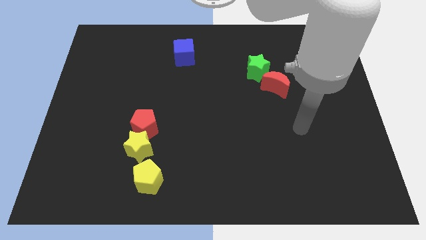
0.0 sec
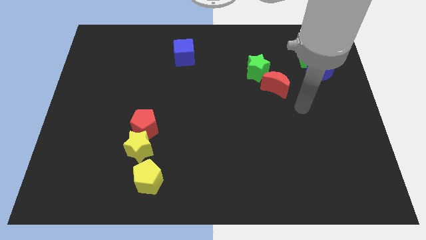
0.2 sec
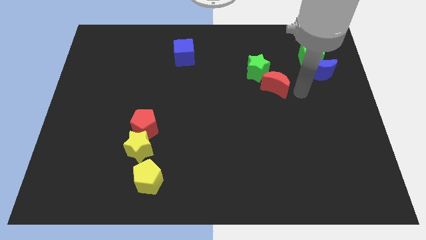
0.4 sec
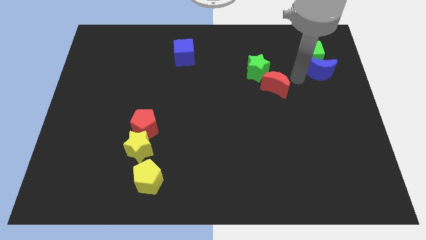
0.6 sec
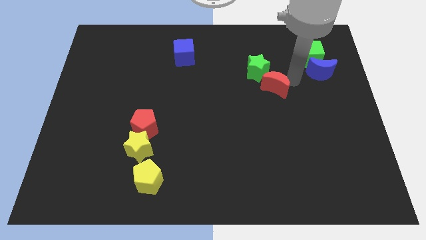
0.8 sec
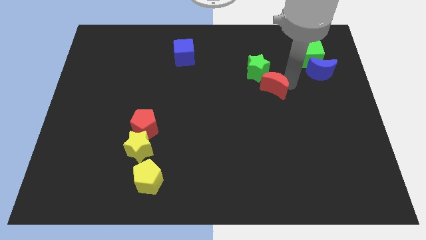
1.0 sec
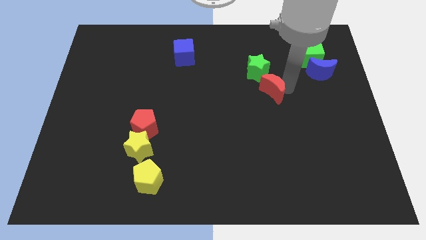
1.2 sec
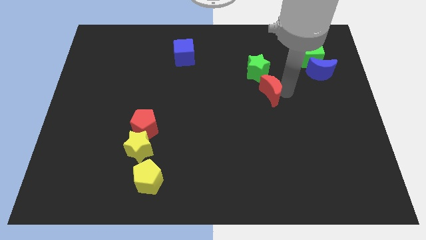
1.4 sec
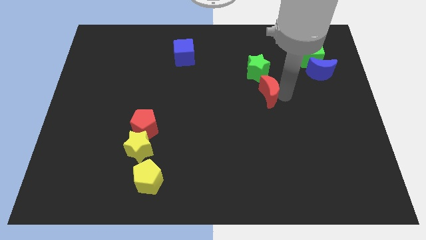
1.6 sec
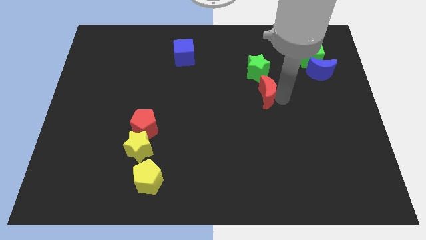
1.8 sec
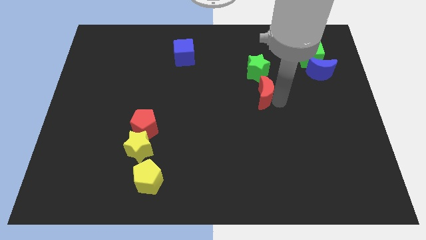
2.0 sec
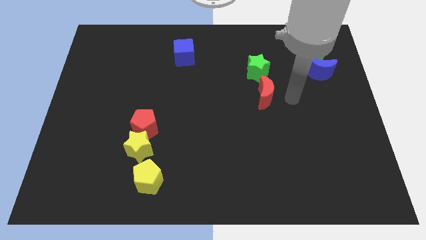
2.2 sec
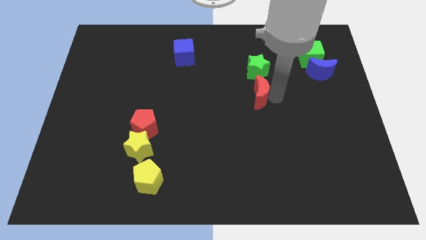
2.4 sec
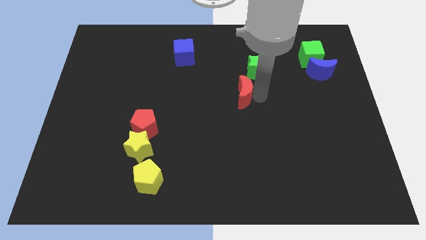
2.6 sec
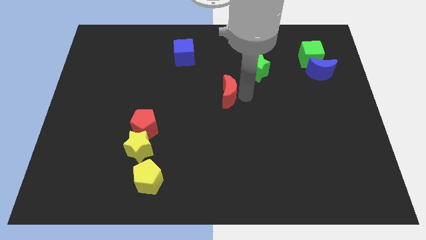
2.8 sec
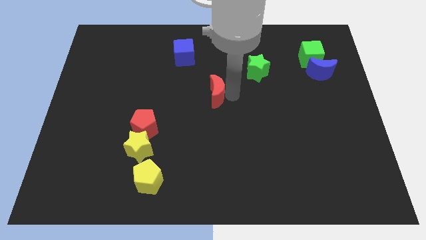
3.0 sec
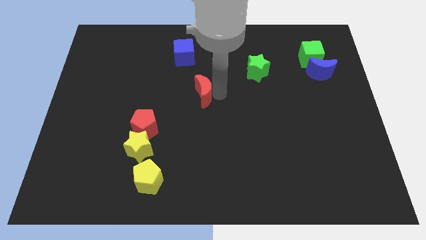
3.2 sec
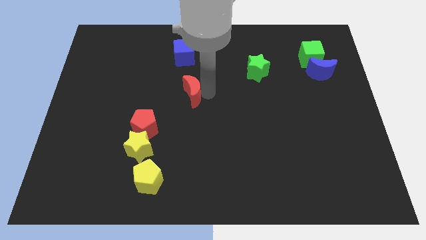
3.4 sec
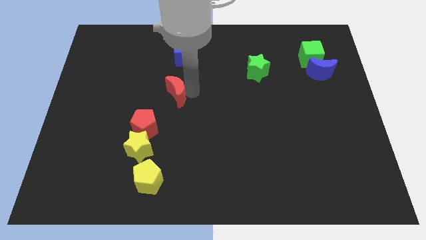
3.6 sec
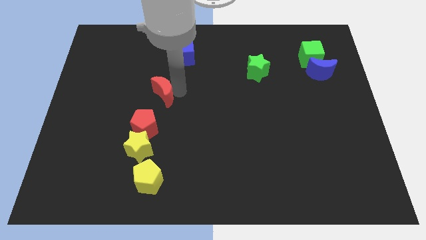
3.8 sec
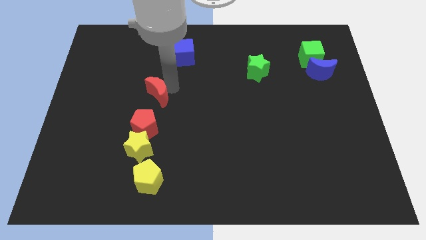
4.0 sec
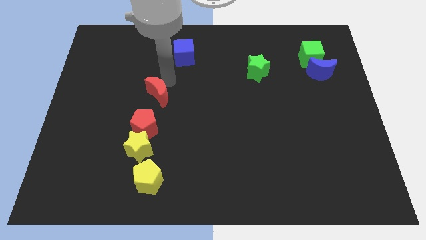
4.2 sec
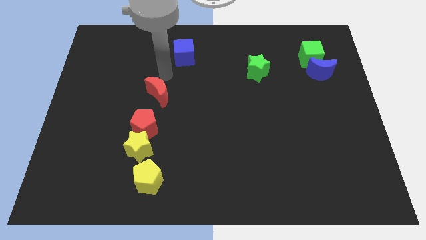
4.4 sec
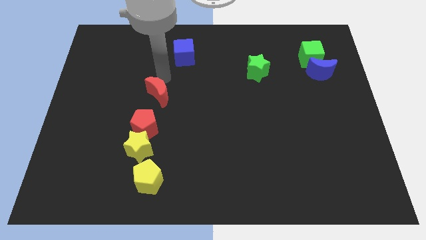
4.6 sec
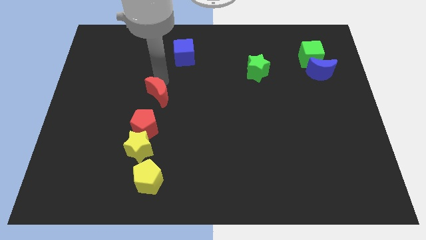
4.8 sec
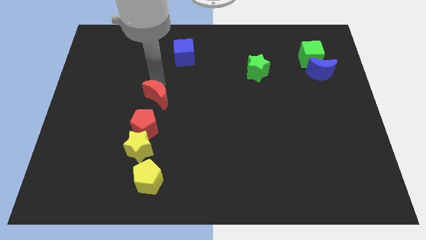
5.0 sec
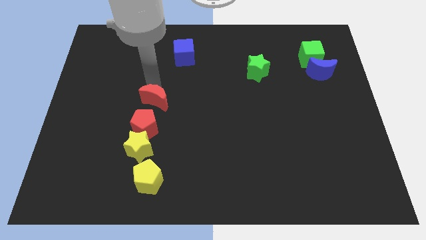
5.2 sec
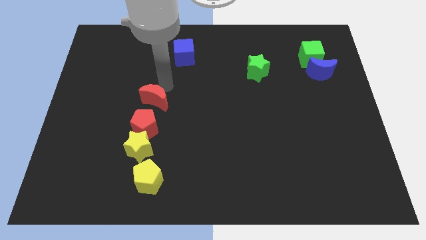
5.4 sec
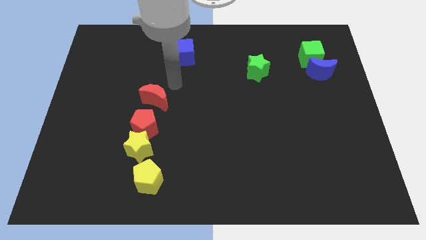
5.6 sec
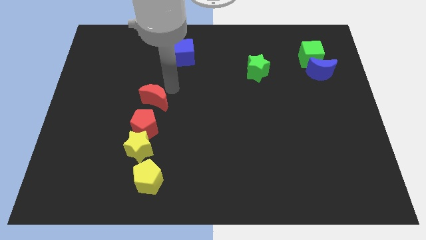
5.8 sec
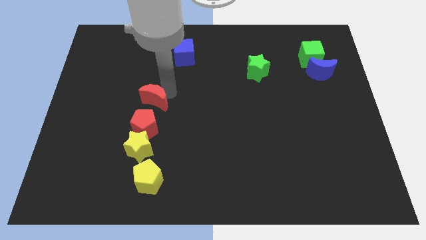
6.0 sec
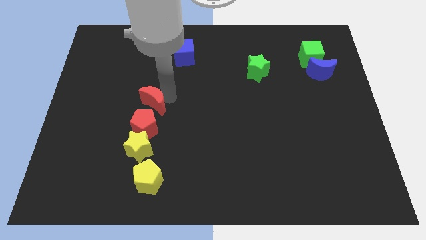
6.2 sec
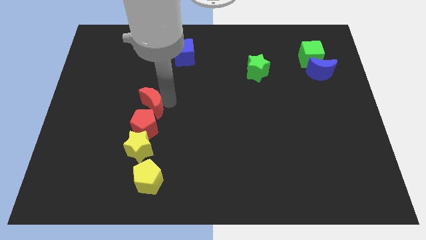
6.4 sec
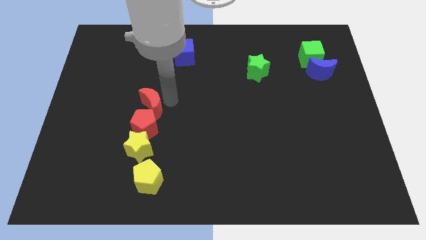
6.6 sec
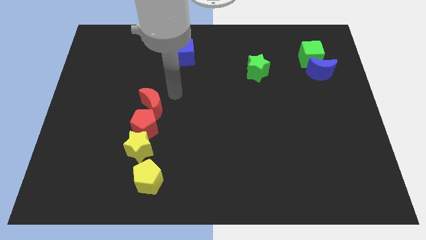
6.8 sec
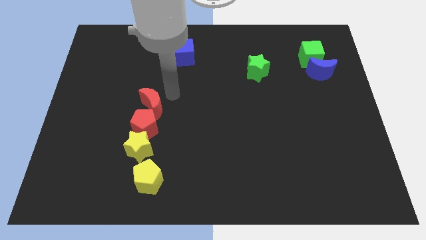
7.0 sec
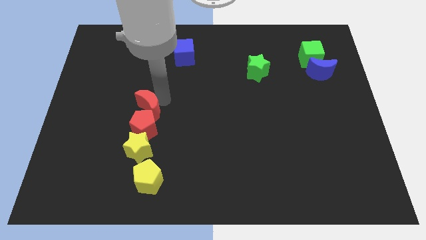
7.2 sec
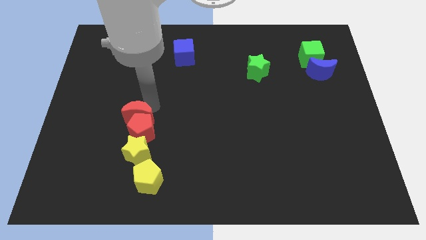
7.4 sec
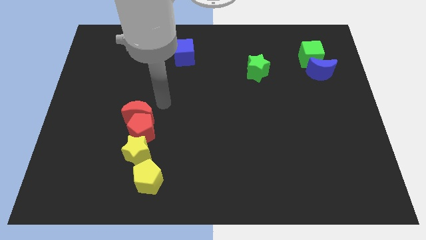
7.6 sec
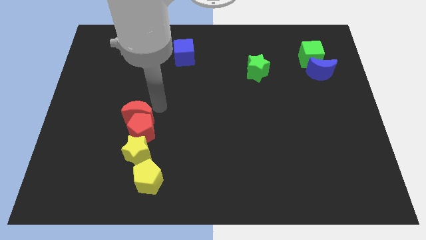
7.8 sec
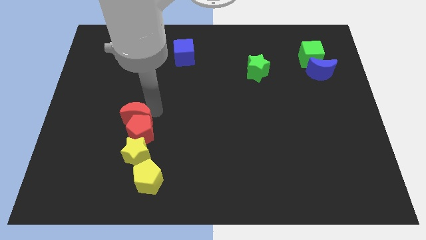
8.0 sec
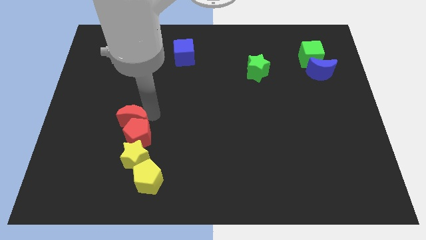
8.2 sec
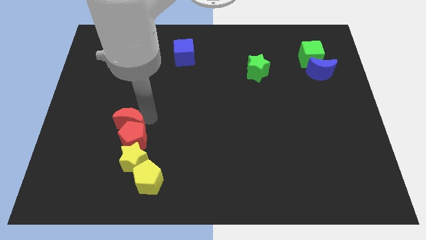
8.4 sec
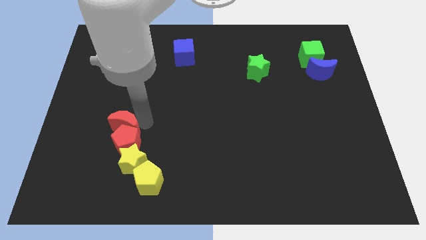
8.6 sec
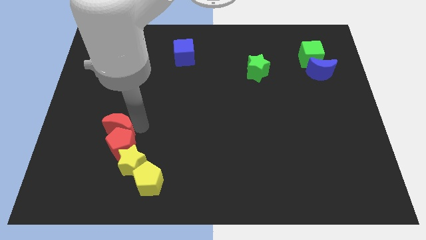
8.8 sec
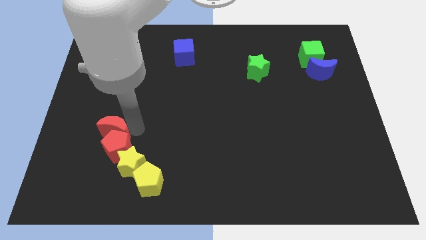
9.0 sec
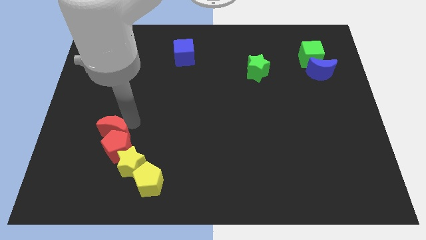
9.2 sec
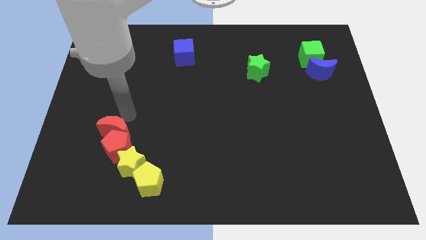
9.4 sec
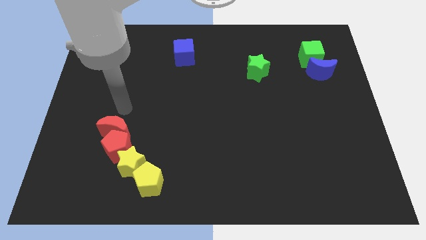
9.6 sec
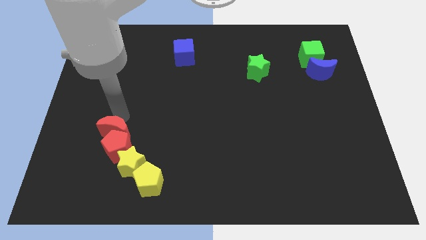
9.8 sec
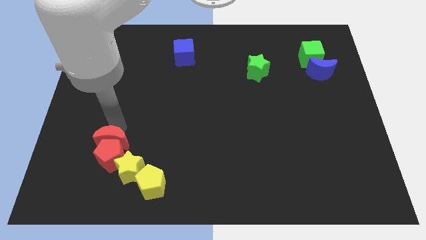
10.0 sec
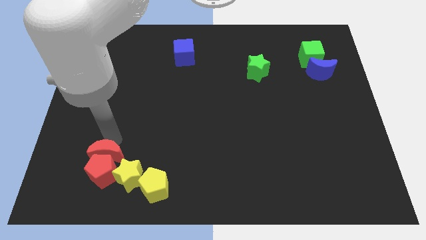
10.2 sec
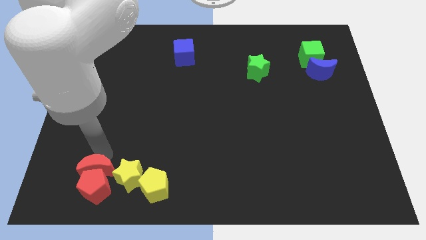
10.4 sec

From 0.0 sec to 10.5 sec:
slide the red moon to the left side of the yellow pentagon

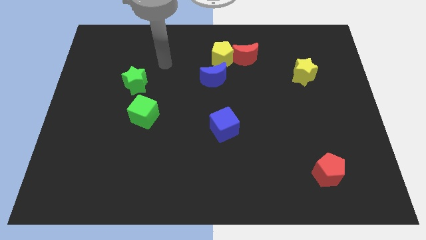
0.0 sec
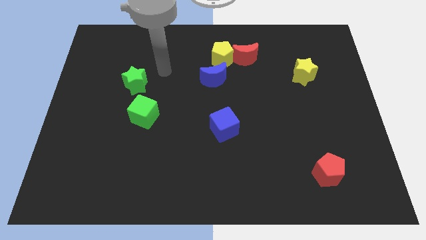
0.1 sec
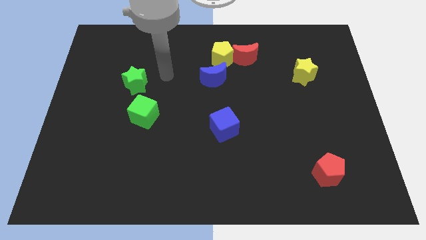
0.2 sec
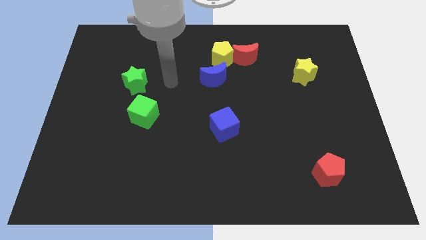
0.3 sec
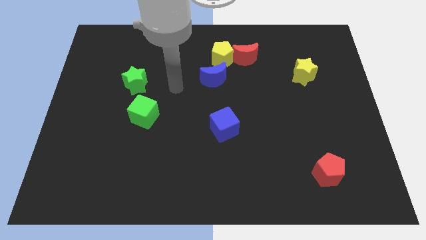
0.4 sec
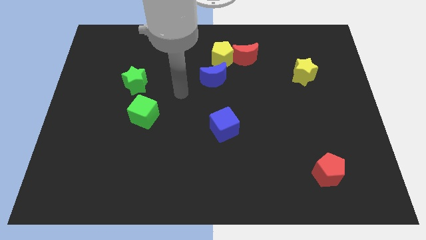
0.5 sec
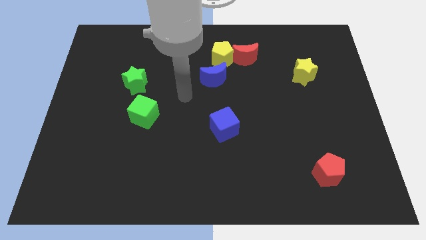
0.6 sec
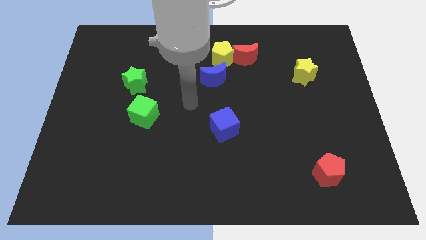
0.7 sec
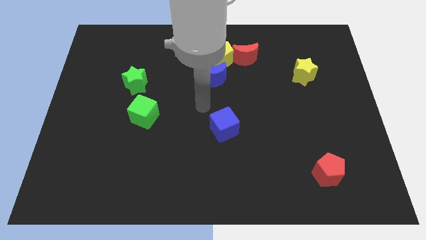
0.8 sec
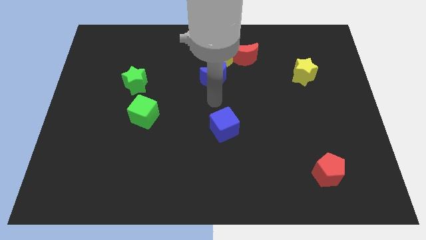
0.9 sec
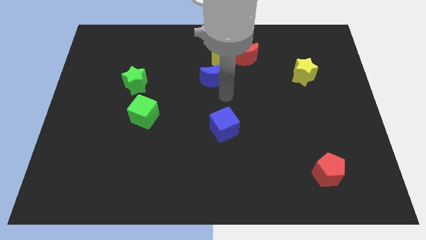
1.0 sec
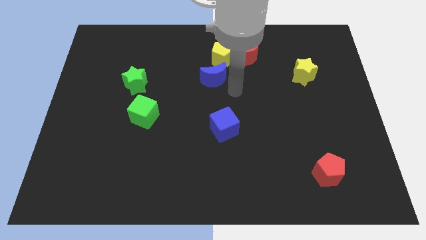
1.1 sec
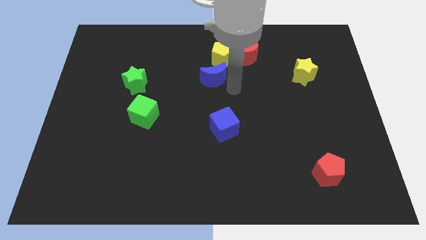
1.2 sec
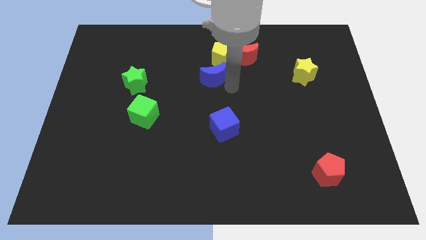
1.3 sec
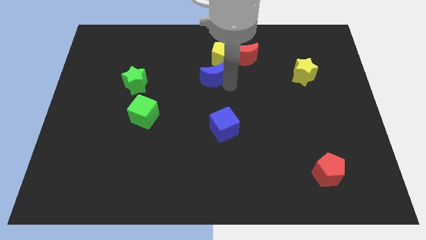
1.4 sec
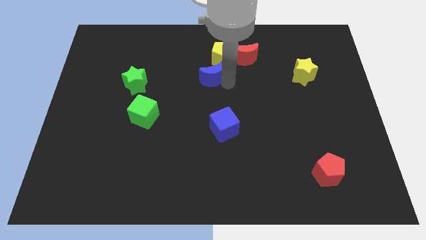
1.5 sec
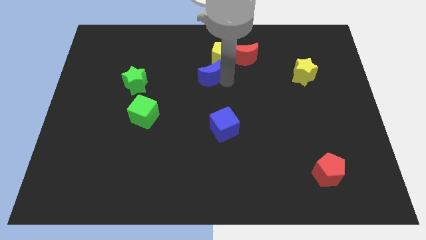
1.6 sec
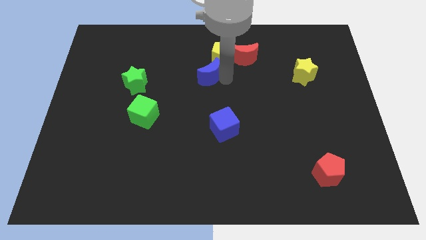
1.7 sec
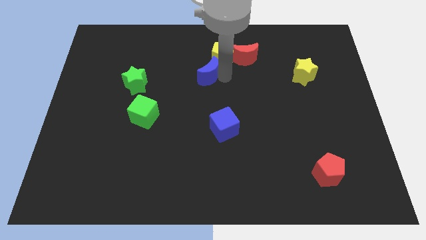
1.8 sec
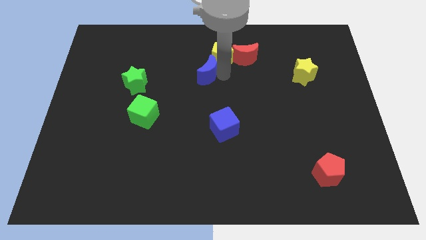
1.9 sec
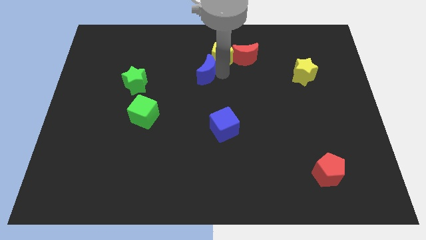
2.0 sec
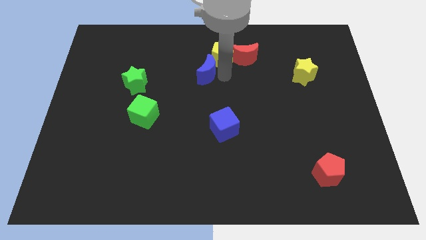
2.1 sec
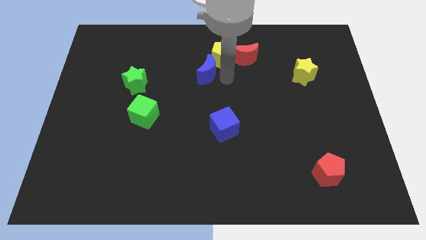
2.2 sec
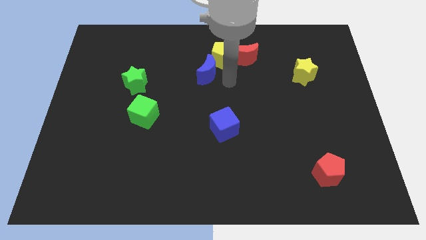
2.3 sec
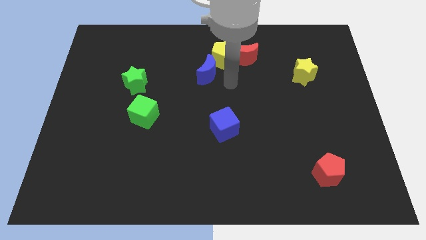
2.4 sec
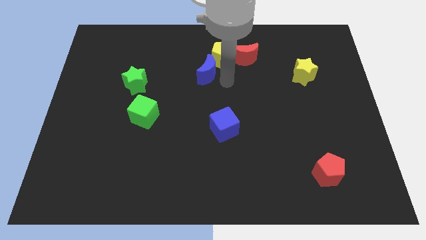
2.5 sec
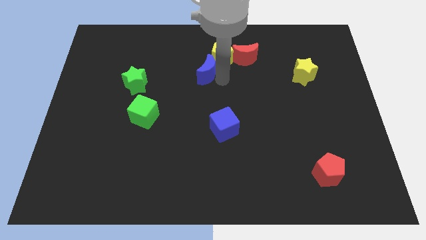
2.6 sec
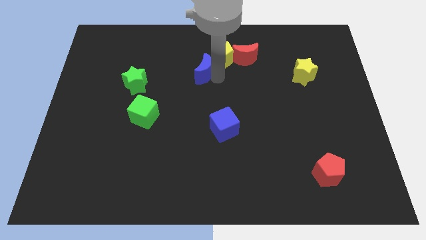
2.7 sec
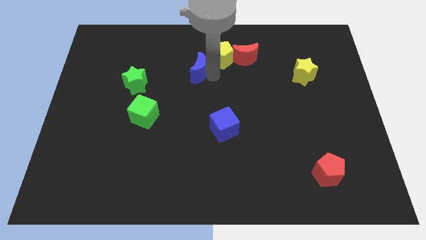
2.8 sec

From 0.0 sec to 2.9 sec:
push the blue moon left of the yellow pentagon

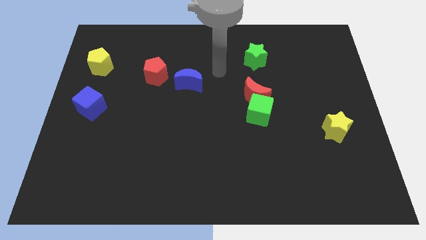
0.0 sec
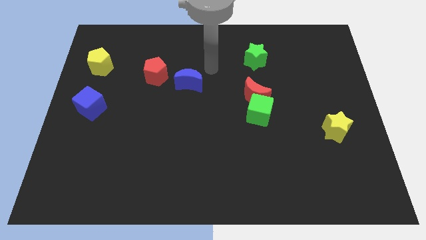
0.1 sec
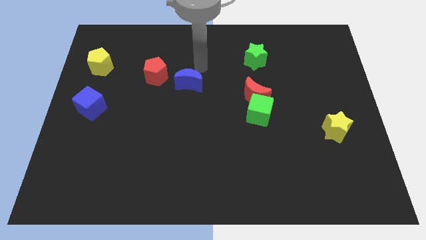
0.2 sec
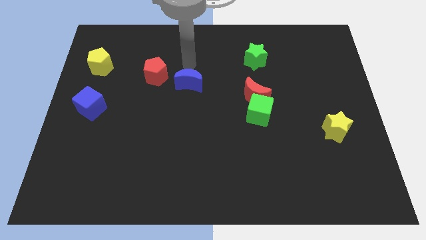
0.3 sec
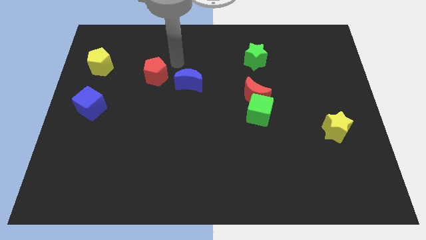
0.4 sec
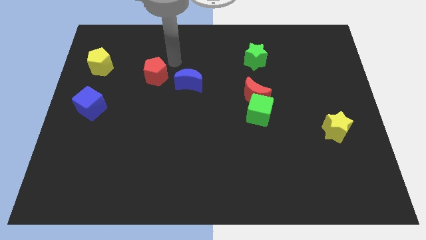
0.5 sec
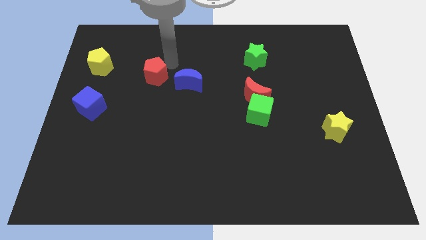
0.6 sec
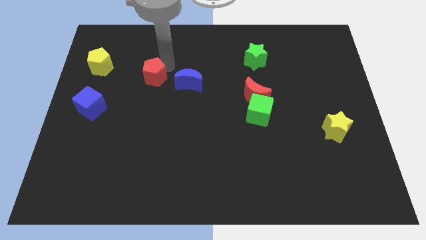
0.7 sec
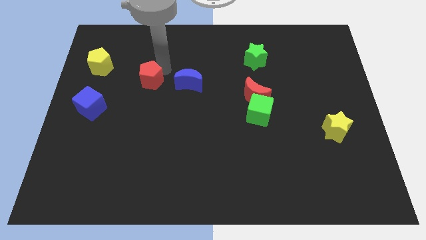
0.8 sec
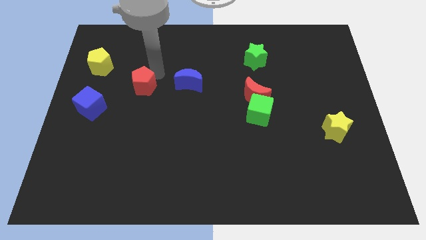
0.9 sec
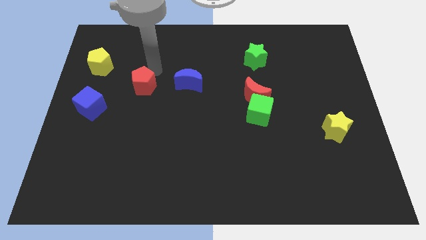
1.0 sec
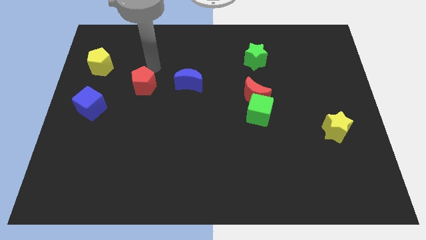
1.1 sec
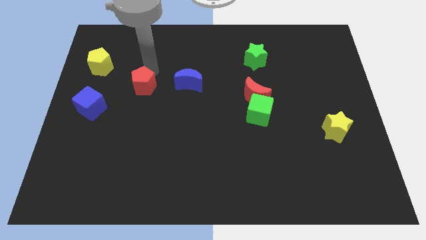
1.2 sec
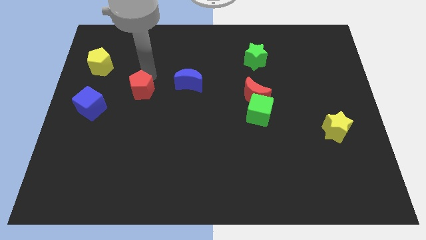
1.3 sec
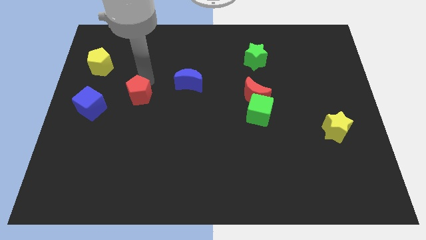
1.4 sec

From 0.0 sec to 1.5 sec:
move the red pentagon to the right side of the blue cube
